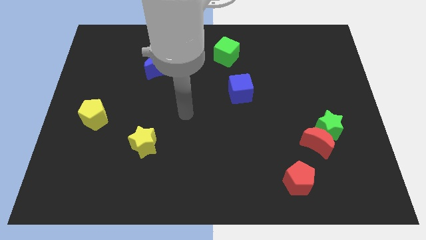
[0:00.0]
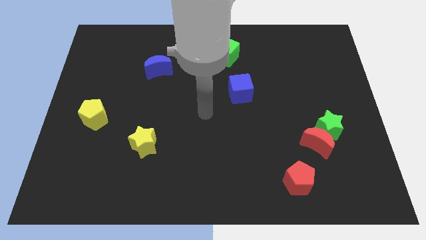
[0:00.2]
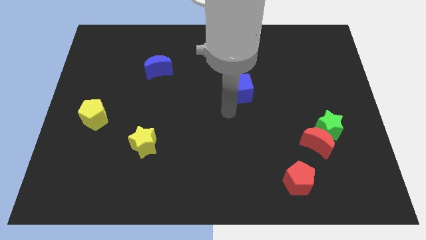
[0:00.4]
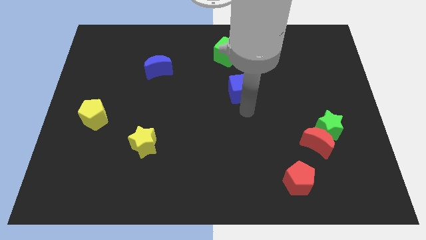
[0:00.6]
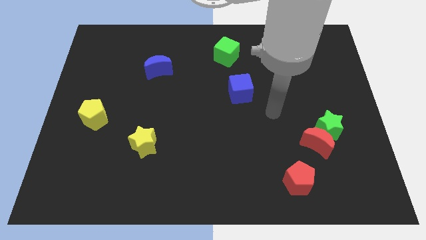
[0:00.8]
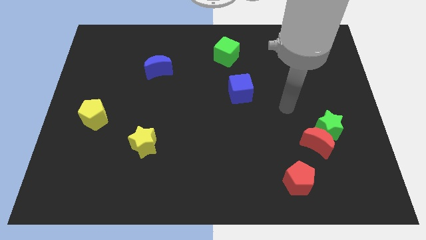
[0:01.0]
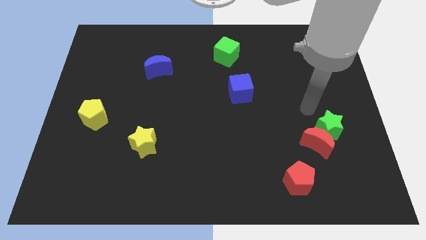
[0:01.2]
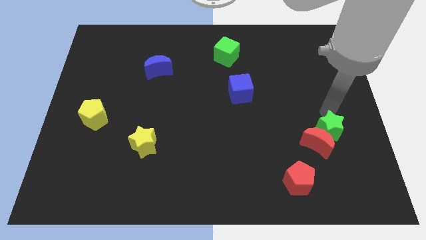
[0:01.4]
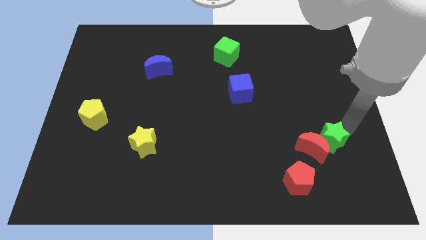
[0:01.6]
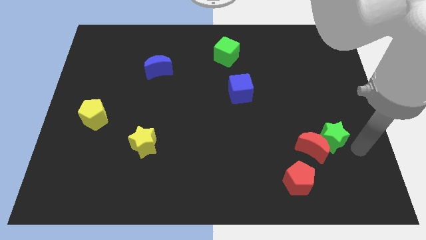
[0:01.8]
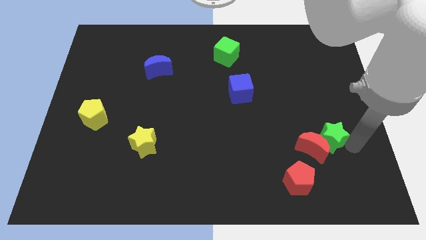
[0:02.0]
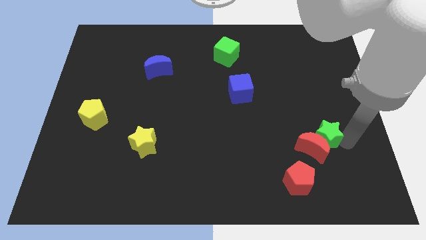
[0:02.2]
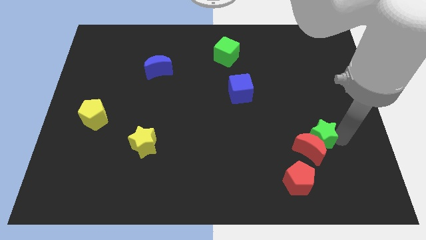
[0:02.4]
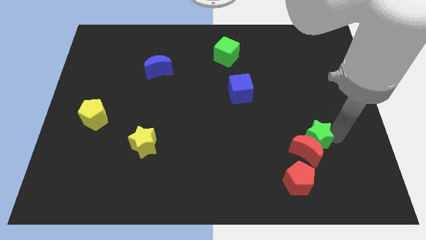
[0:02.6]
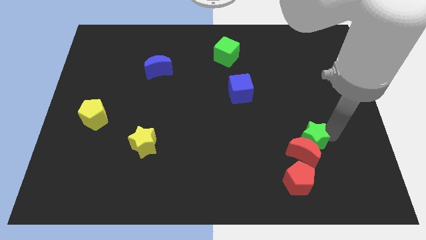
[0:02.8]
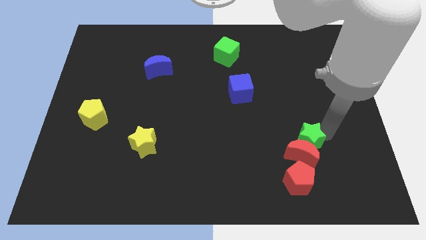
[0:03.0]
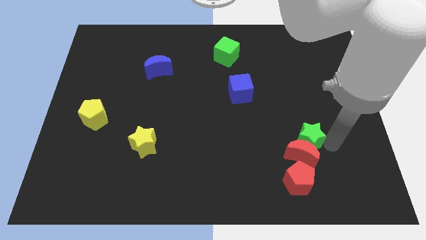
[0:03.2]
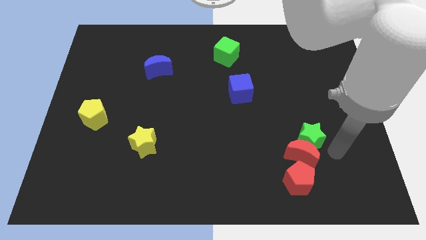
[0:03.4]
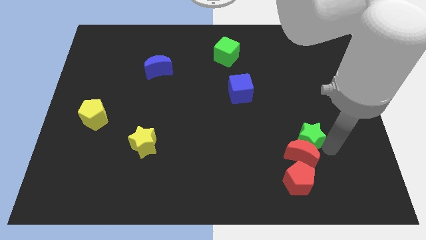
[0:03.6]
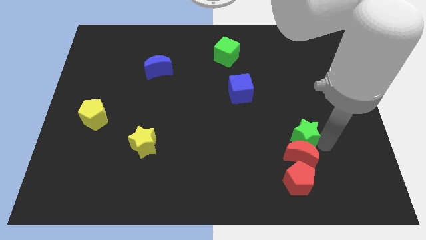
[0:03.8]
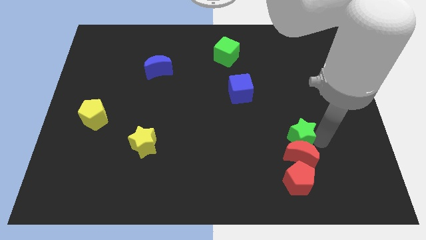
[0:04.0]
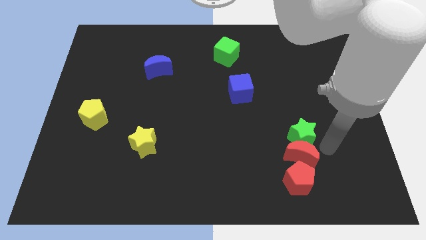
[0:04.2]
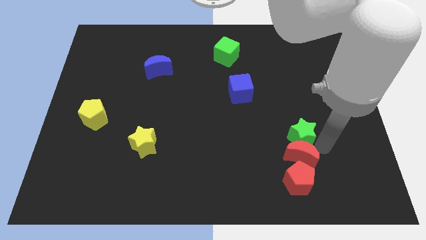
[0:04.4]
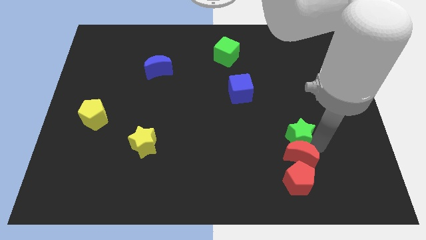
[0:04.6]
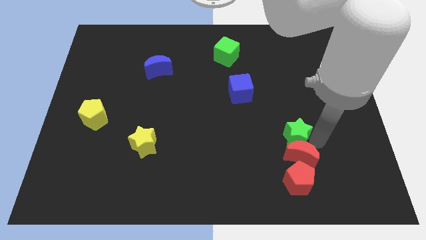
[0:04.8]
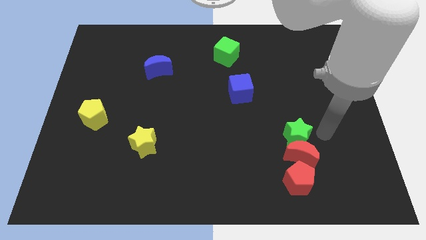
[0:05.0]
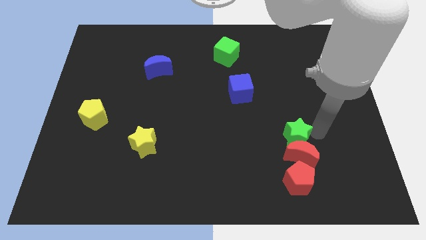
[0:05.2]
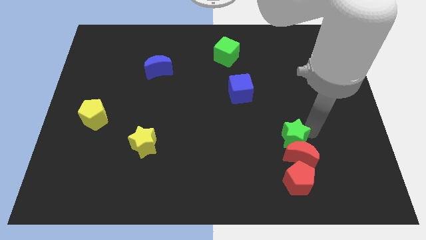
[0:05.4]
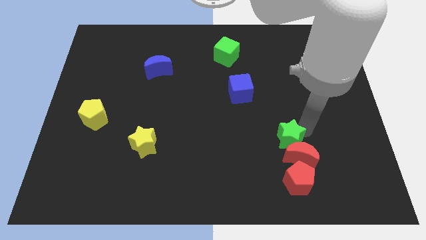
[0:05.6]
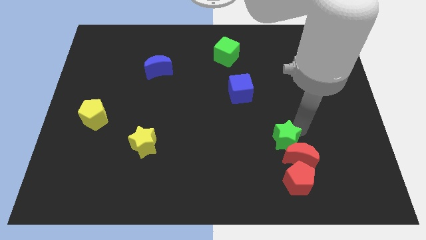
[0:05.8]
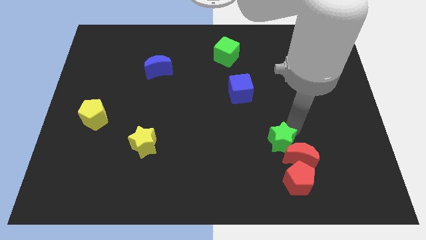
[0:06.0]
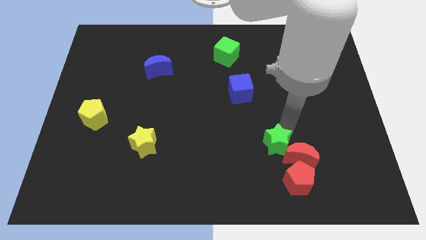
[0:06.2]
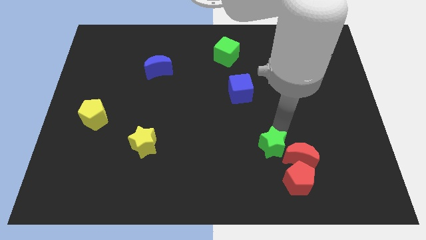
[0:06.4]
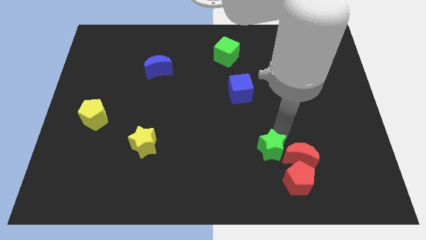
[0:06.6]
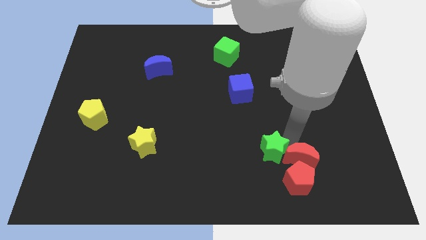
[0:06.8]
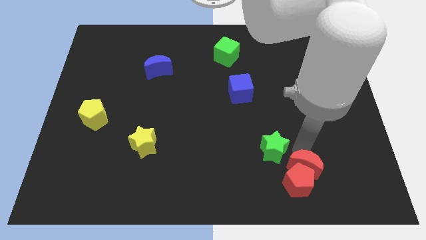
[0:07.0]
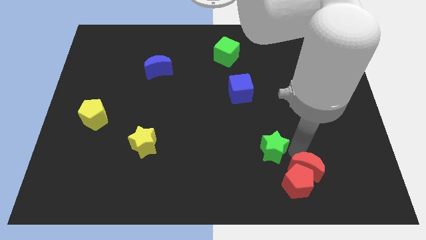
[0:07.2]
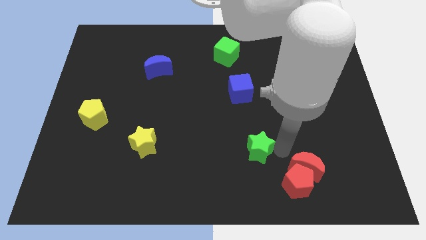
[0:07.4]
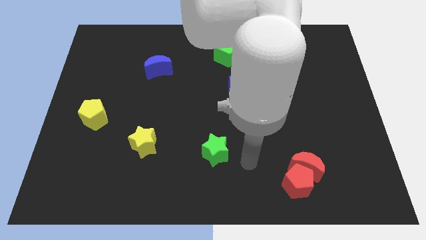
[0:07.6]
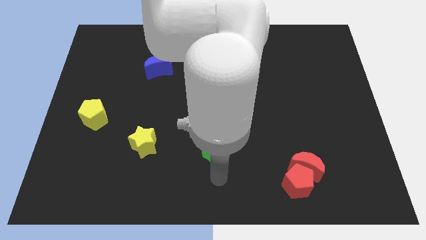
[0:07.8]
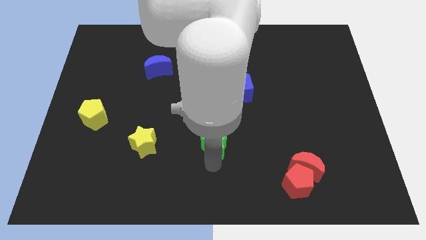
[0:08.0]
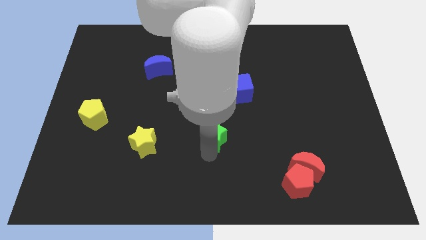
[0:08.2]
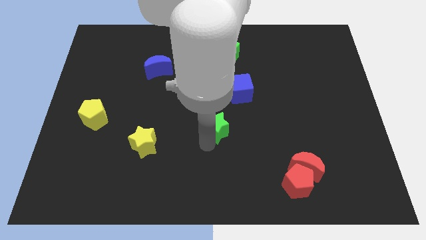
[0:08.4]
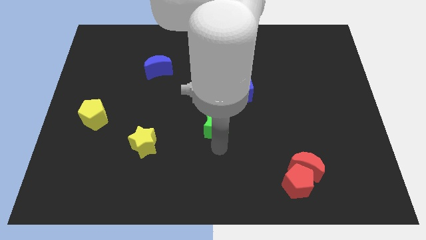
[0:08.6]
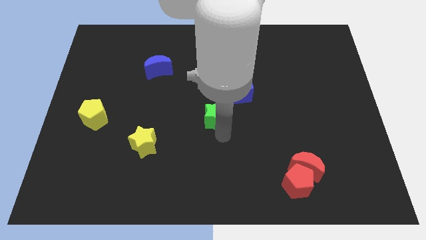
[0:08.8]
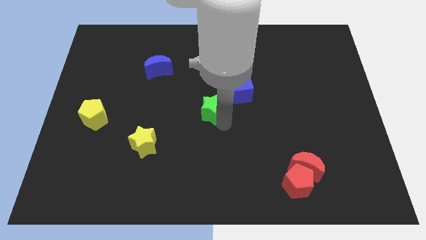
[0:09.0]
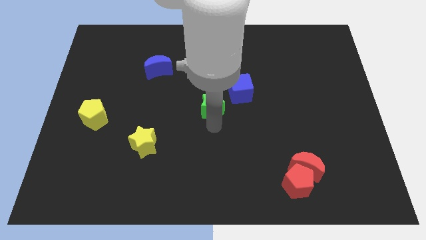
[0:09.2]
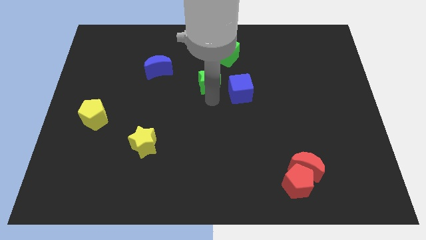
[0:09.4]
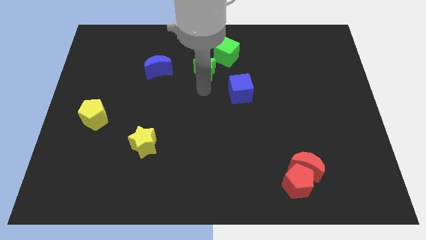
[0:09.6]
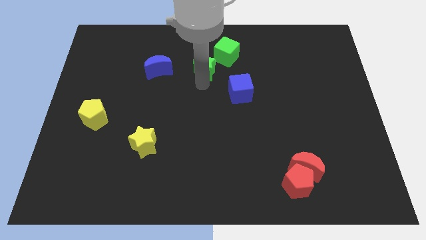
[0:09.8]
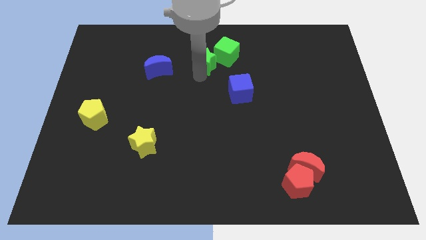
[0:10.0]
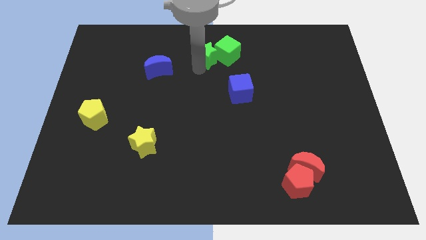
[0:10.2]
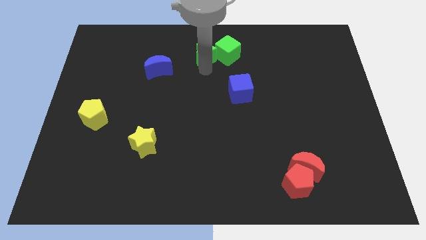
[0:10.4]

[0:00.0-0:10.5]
move the green star to the towards your base

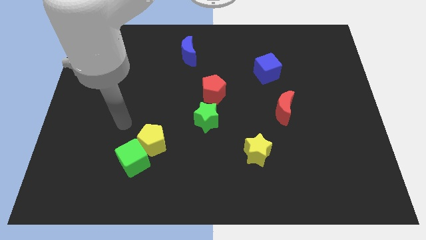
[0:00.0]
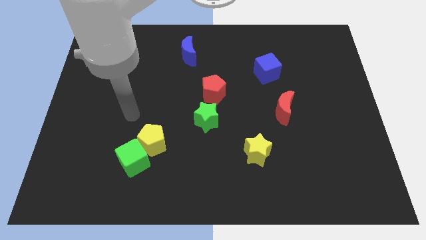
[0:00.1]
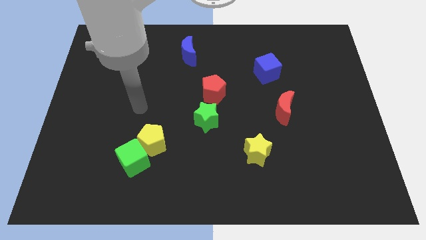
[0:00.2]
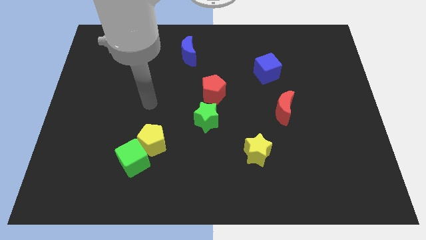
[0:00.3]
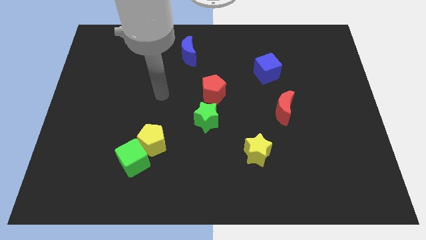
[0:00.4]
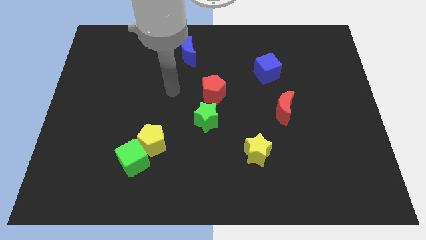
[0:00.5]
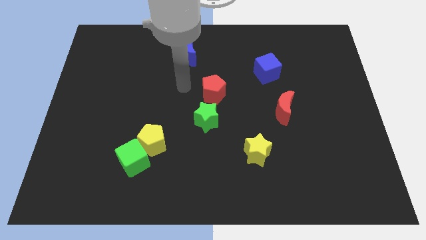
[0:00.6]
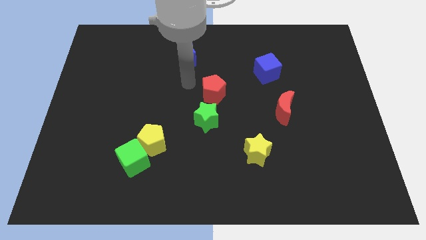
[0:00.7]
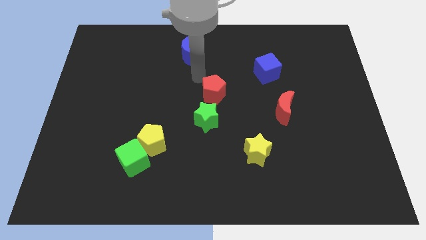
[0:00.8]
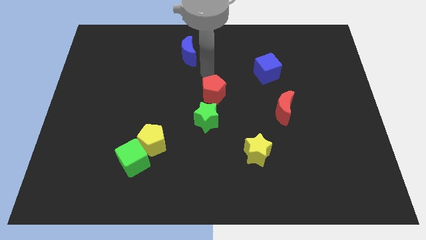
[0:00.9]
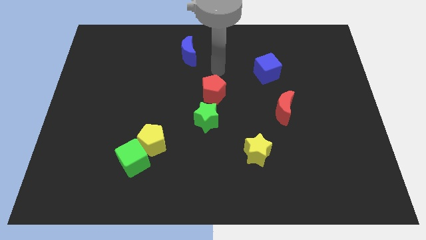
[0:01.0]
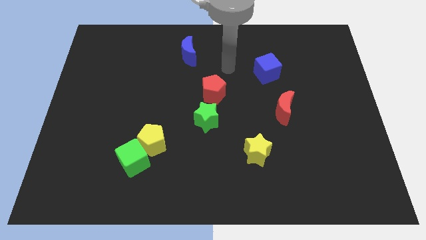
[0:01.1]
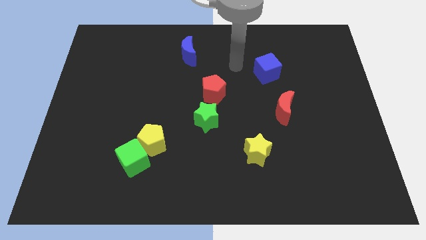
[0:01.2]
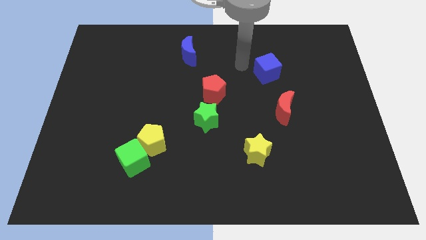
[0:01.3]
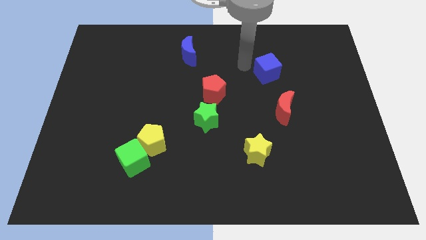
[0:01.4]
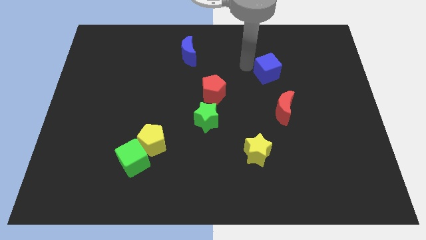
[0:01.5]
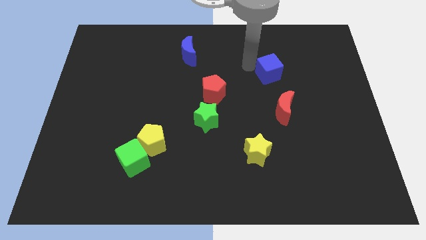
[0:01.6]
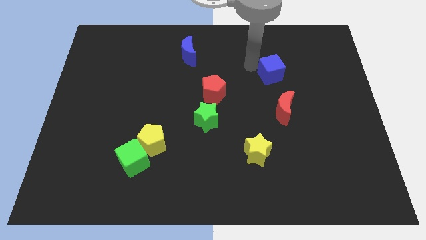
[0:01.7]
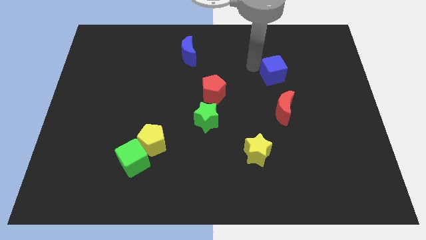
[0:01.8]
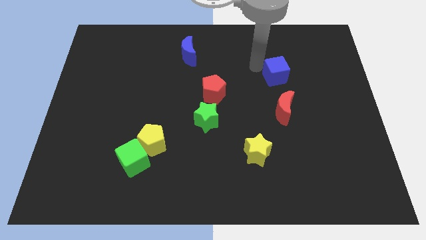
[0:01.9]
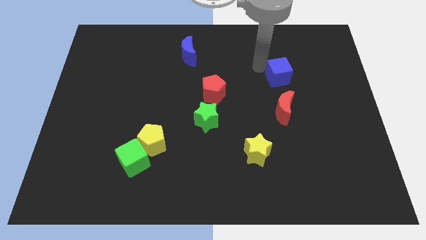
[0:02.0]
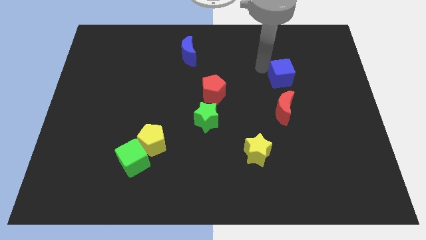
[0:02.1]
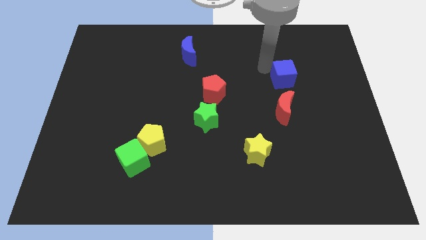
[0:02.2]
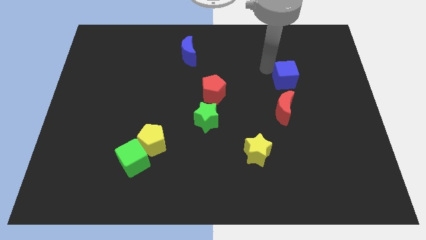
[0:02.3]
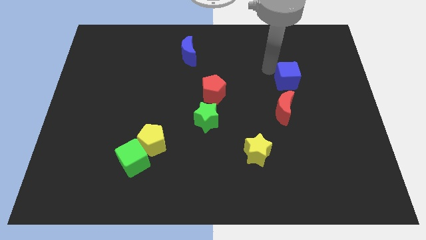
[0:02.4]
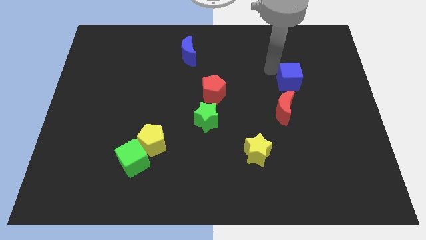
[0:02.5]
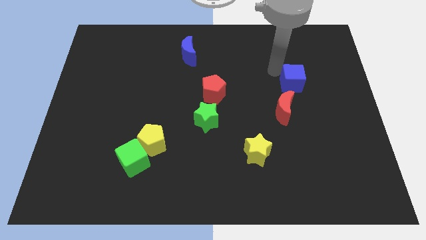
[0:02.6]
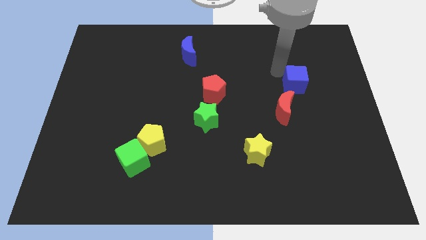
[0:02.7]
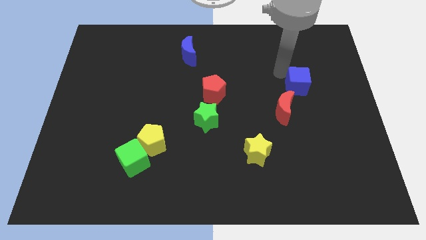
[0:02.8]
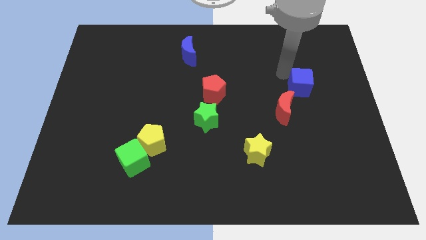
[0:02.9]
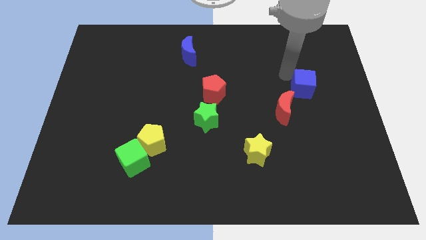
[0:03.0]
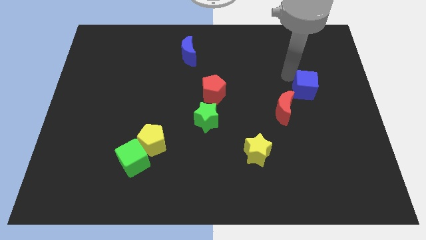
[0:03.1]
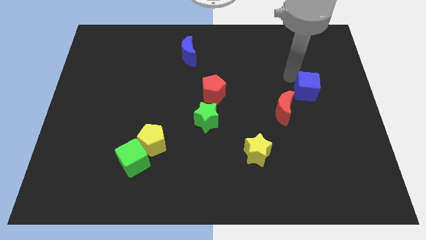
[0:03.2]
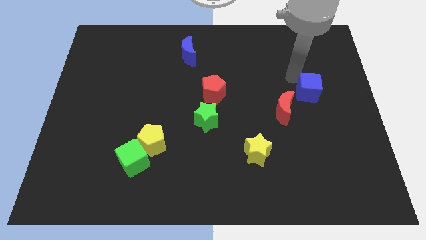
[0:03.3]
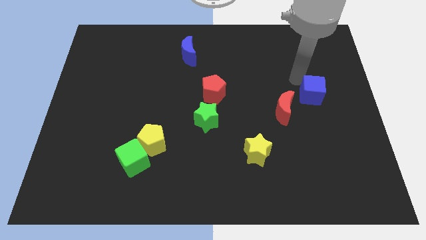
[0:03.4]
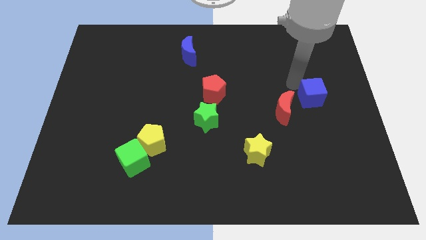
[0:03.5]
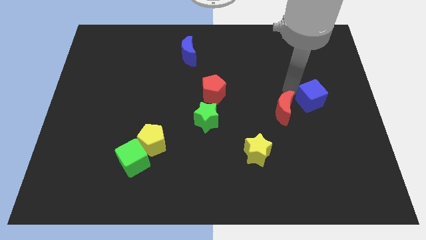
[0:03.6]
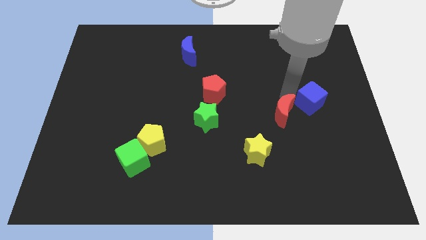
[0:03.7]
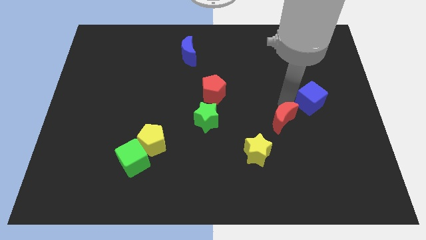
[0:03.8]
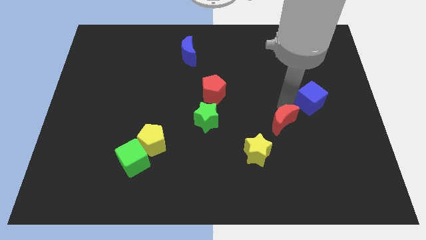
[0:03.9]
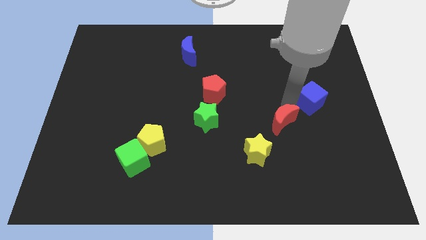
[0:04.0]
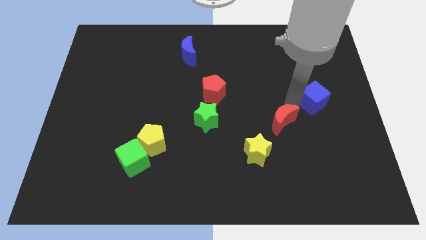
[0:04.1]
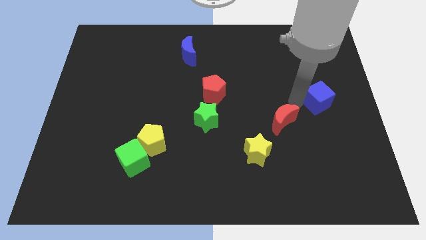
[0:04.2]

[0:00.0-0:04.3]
move the blue cube to the right side of the board
